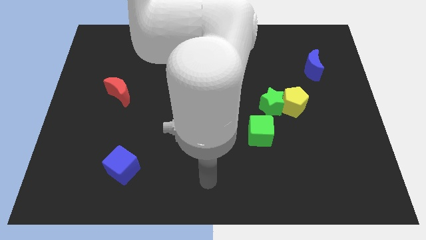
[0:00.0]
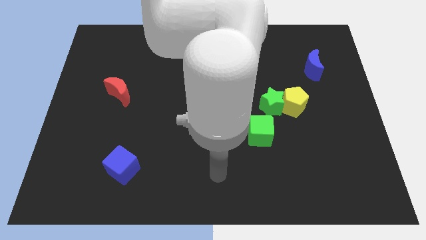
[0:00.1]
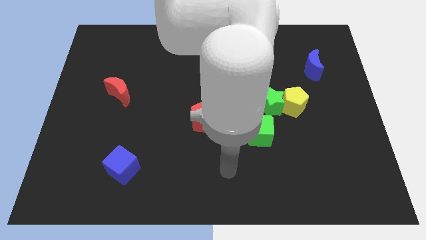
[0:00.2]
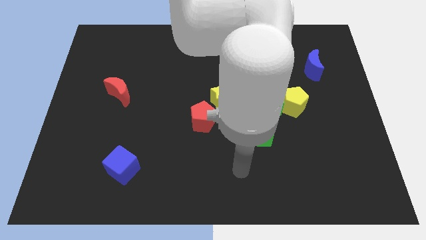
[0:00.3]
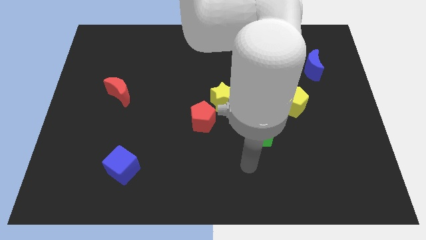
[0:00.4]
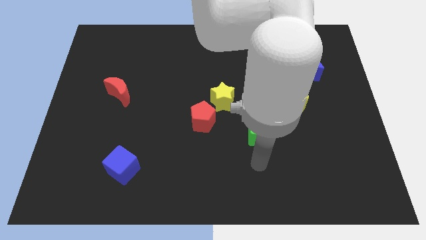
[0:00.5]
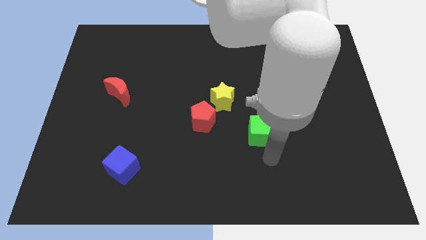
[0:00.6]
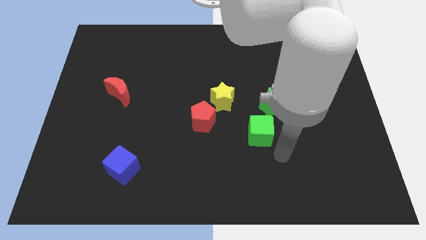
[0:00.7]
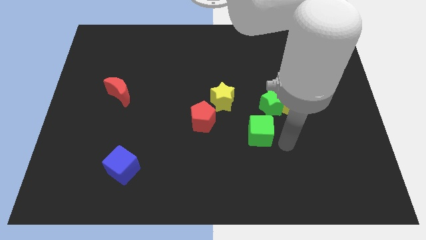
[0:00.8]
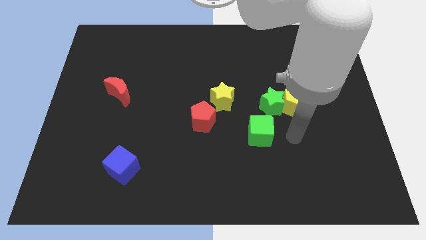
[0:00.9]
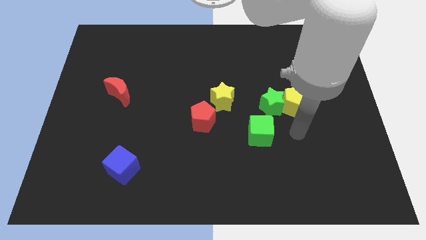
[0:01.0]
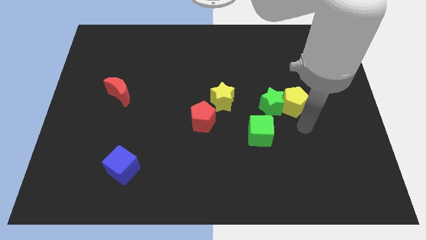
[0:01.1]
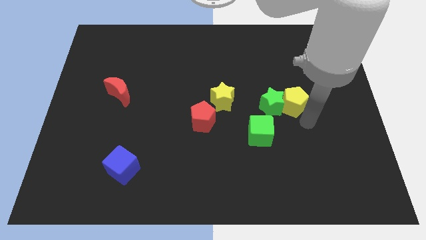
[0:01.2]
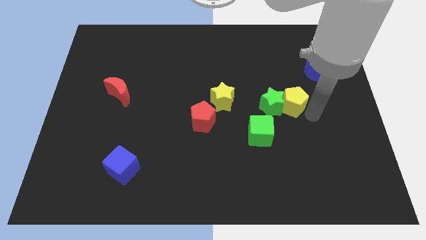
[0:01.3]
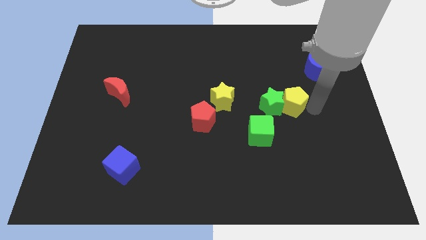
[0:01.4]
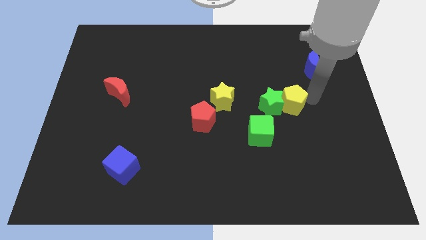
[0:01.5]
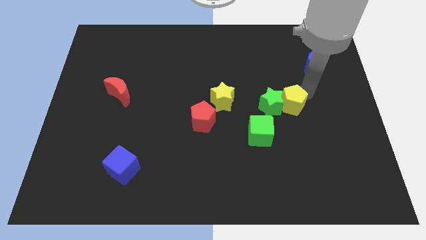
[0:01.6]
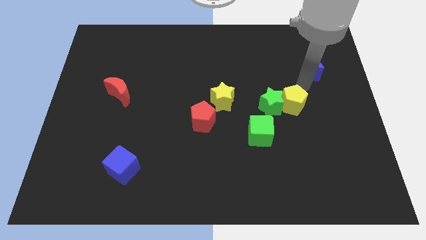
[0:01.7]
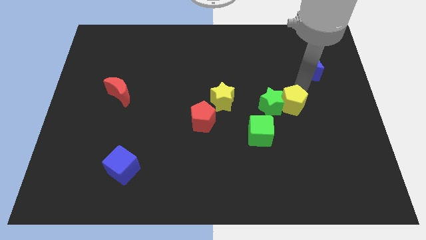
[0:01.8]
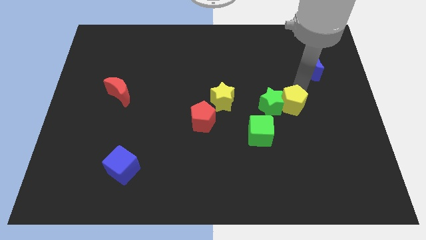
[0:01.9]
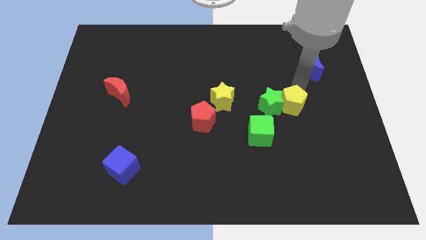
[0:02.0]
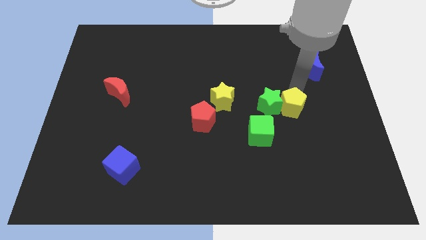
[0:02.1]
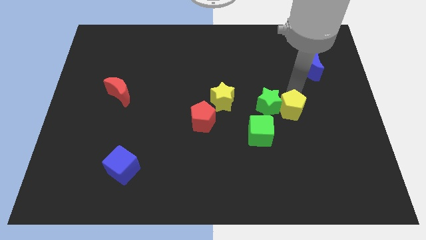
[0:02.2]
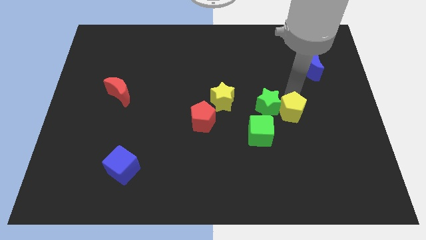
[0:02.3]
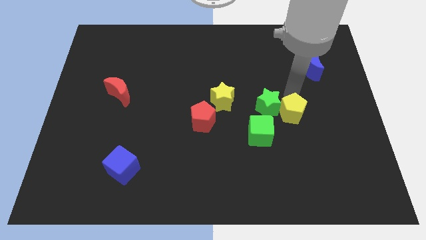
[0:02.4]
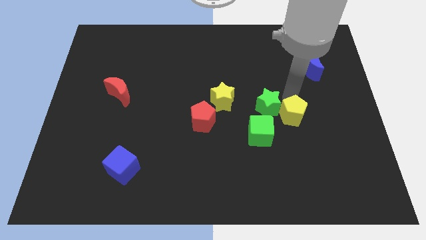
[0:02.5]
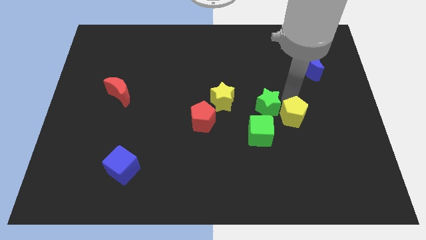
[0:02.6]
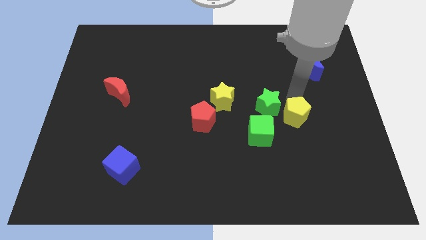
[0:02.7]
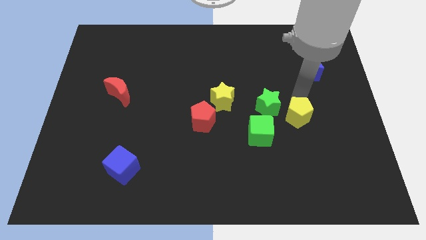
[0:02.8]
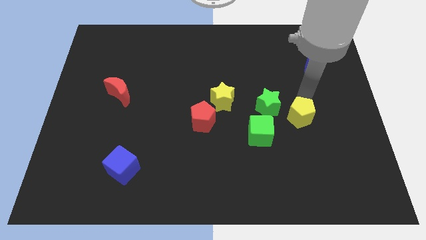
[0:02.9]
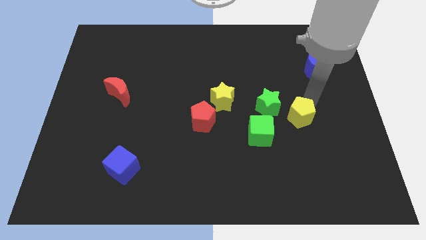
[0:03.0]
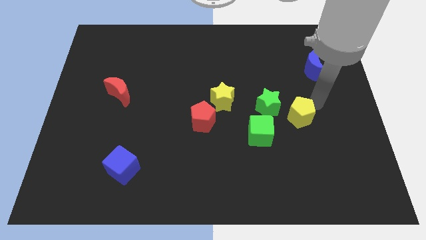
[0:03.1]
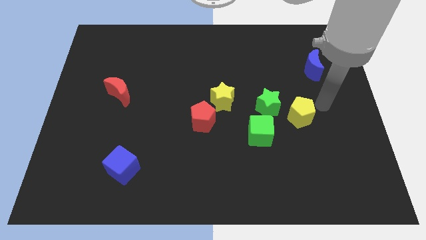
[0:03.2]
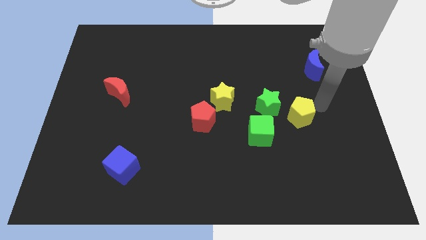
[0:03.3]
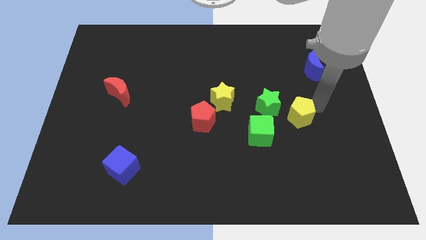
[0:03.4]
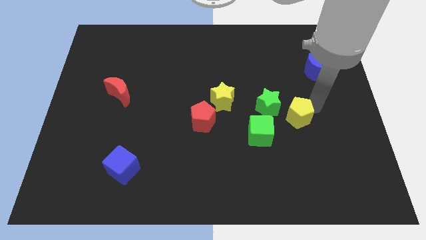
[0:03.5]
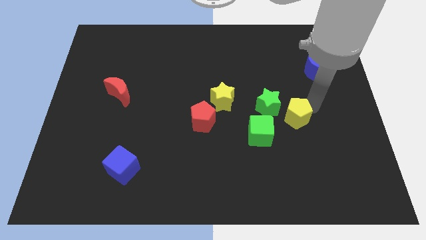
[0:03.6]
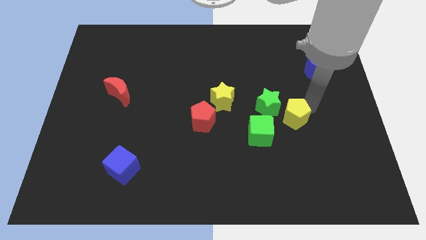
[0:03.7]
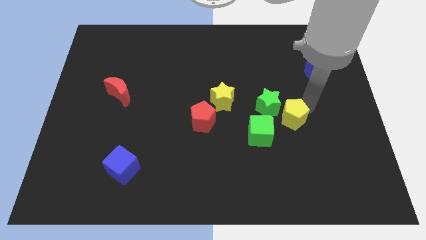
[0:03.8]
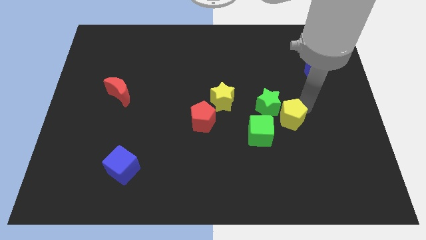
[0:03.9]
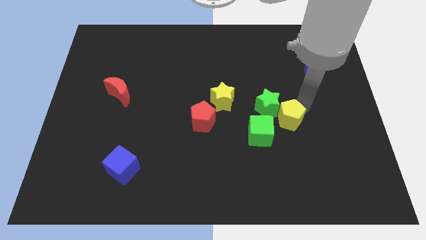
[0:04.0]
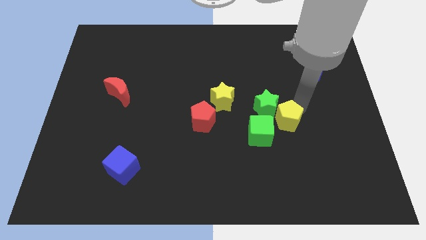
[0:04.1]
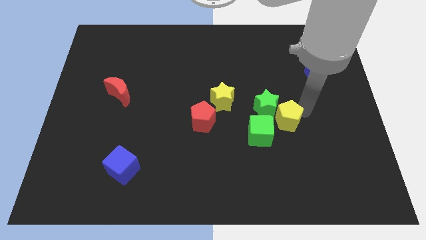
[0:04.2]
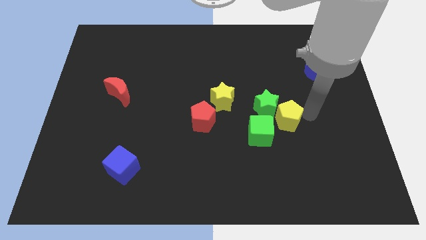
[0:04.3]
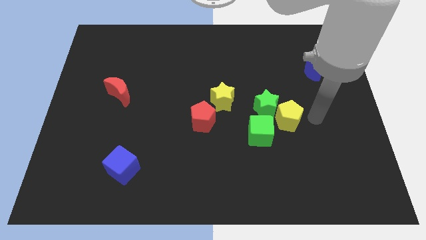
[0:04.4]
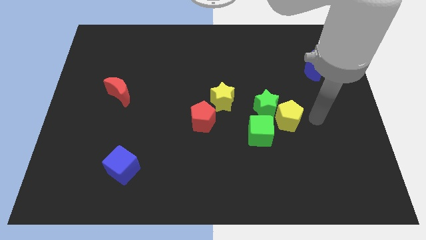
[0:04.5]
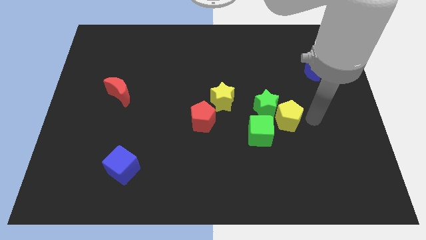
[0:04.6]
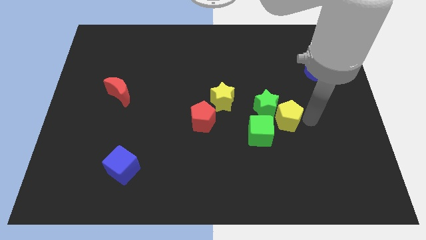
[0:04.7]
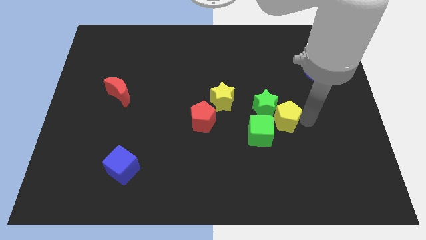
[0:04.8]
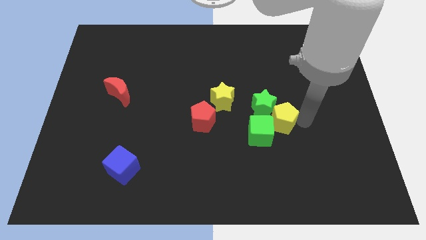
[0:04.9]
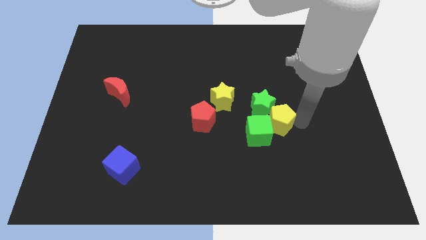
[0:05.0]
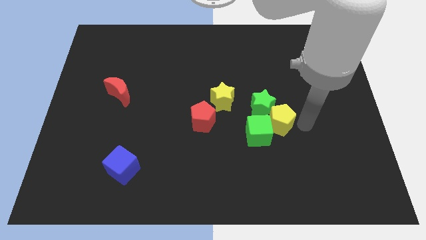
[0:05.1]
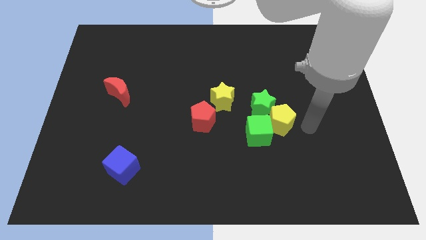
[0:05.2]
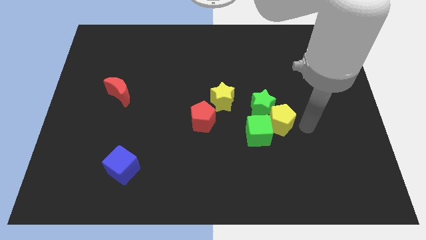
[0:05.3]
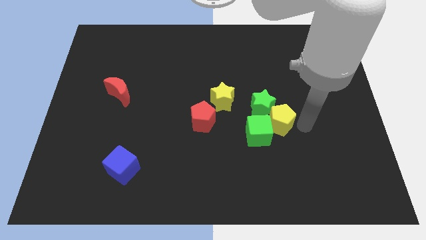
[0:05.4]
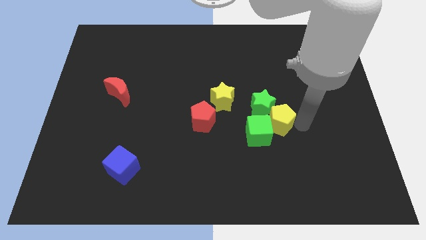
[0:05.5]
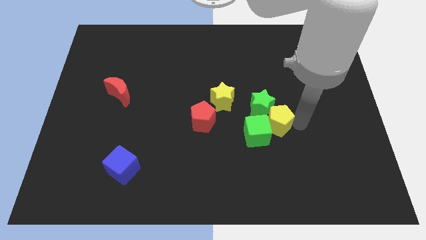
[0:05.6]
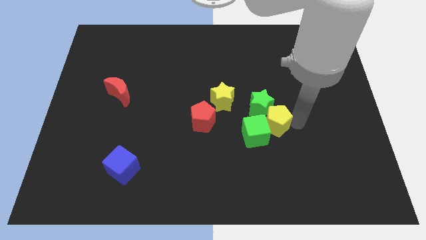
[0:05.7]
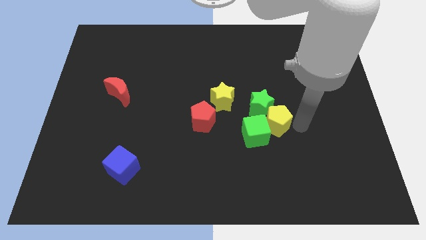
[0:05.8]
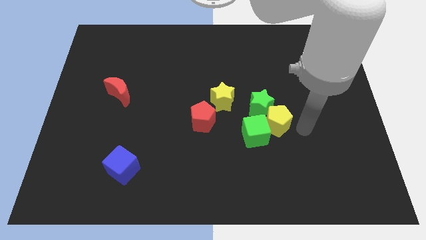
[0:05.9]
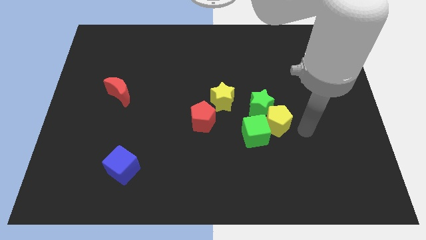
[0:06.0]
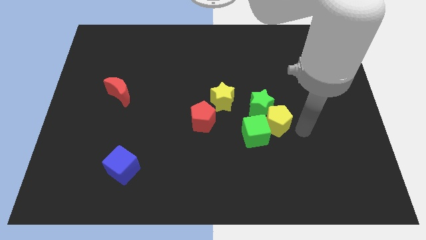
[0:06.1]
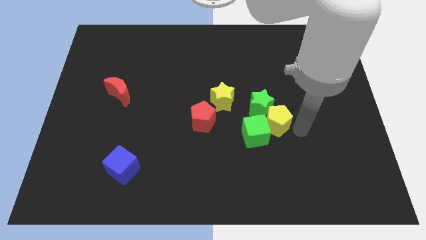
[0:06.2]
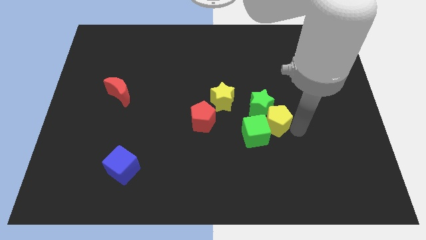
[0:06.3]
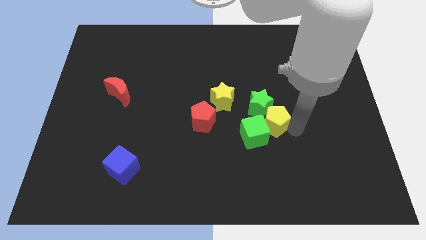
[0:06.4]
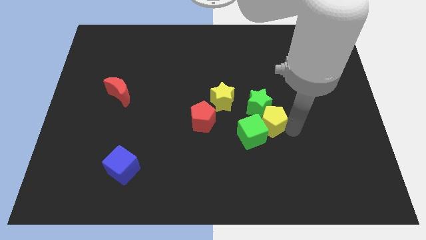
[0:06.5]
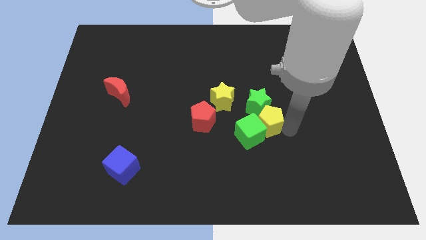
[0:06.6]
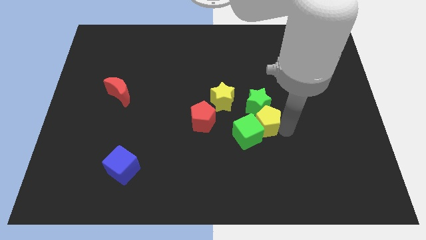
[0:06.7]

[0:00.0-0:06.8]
push the yellow pentagon to the bottom right side of the yellow star

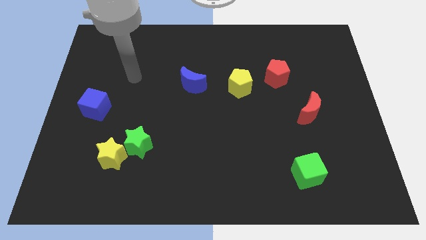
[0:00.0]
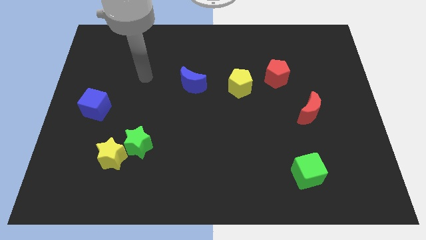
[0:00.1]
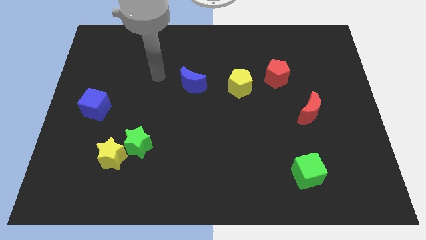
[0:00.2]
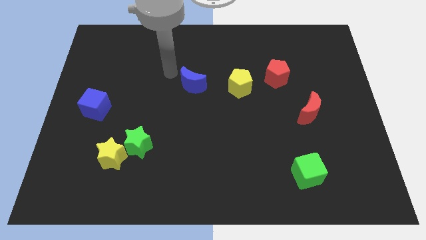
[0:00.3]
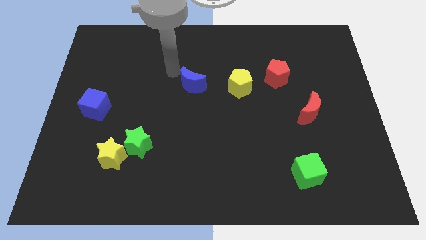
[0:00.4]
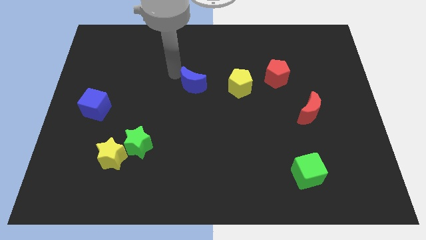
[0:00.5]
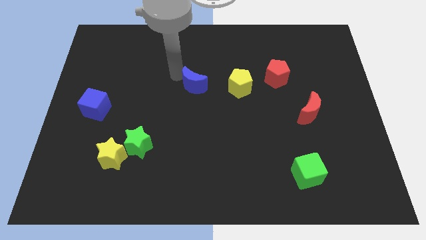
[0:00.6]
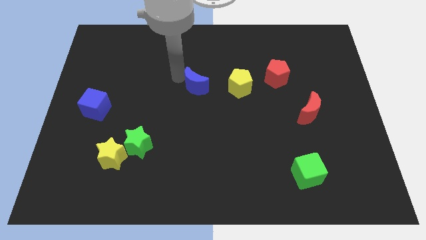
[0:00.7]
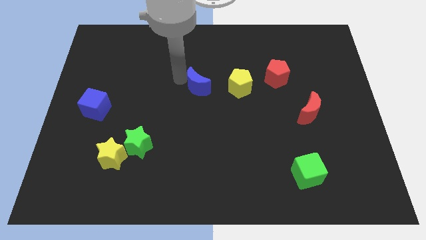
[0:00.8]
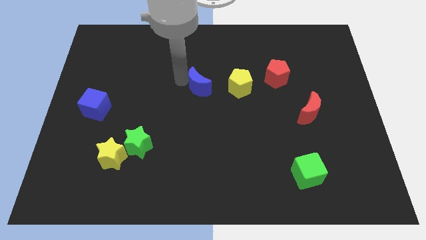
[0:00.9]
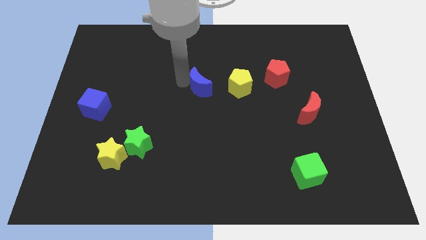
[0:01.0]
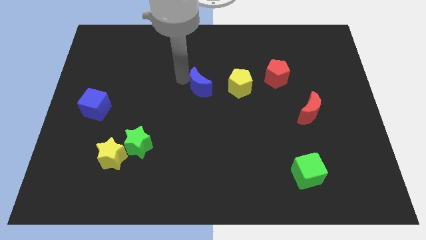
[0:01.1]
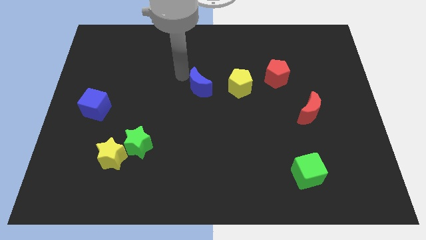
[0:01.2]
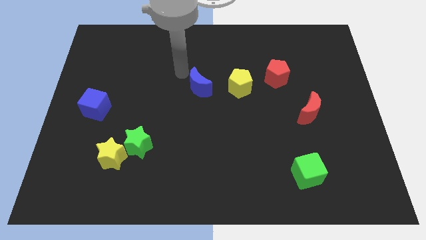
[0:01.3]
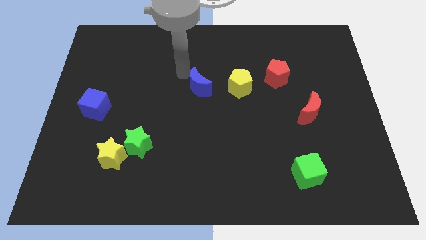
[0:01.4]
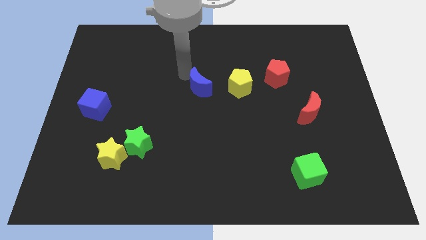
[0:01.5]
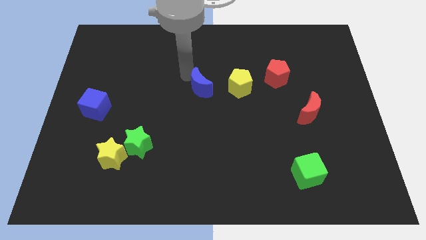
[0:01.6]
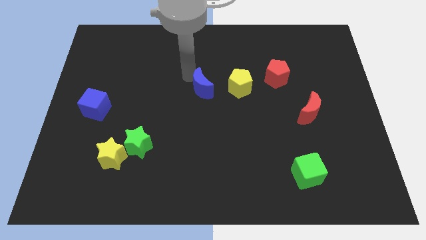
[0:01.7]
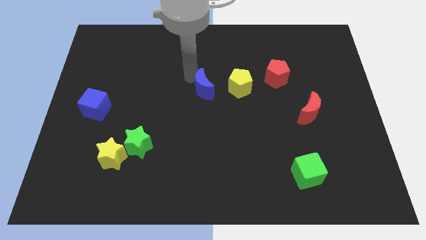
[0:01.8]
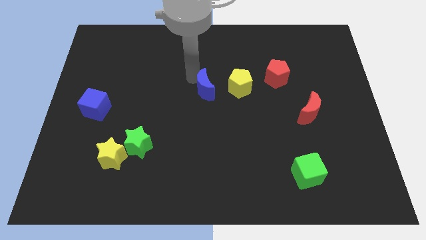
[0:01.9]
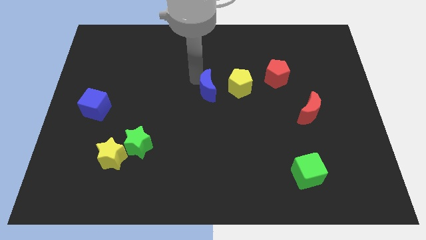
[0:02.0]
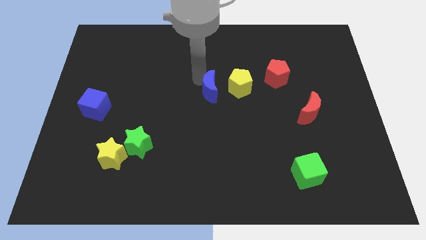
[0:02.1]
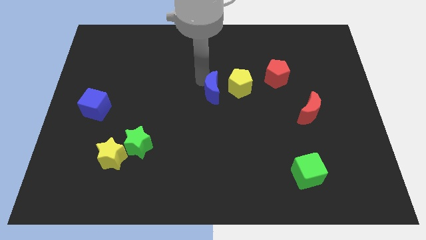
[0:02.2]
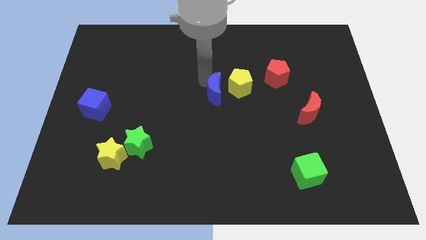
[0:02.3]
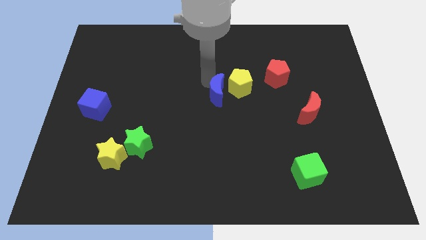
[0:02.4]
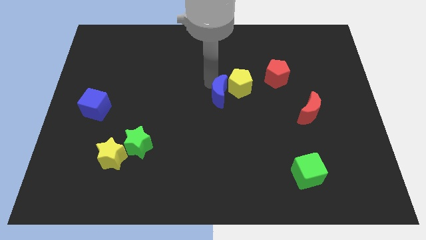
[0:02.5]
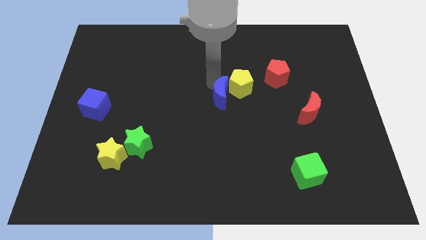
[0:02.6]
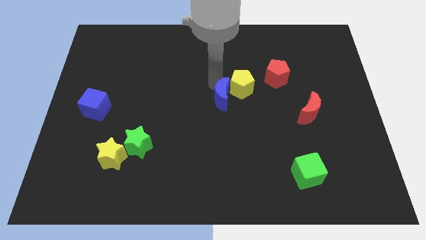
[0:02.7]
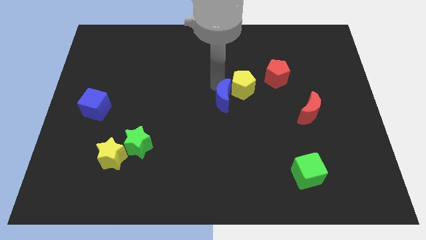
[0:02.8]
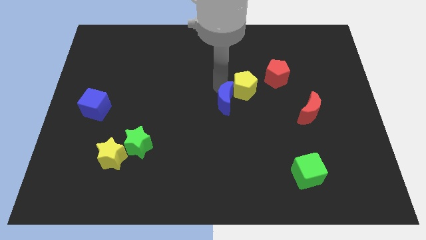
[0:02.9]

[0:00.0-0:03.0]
slide the blue moon to the bottom of the yellow pentagon
